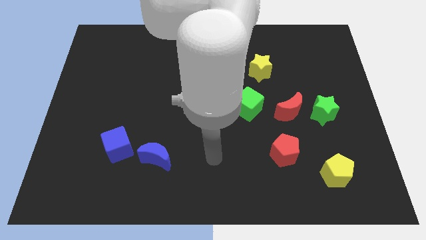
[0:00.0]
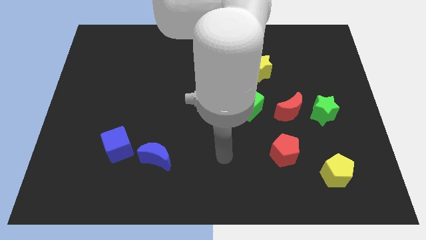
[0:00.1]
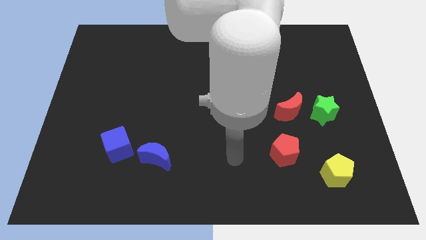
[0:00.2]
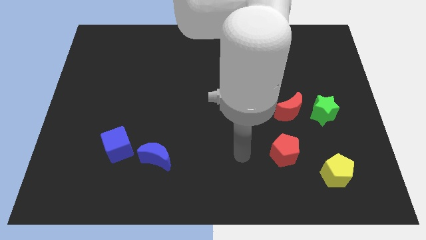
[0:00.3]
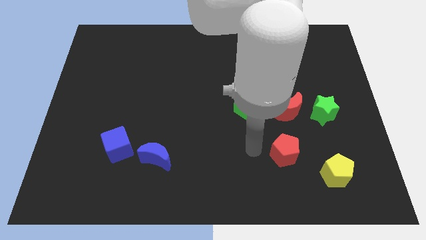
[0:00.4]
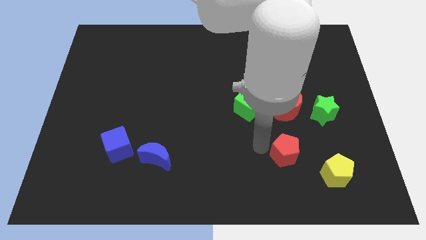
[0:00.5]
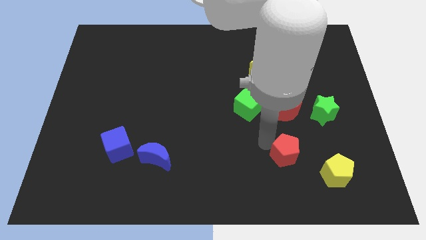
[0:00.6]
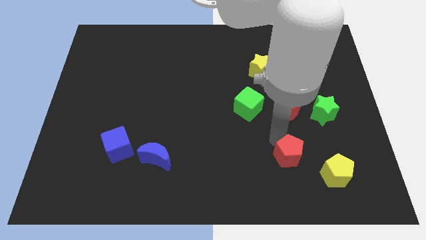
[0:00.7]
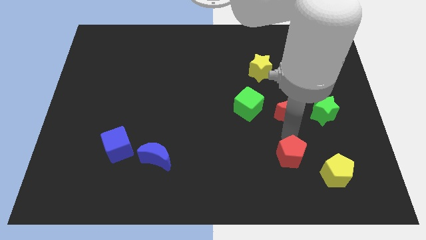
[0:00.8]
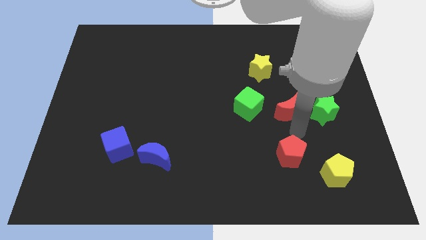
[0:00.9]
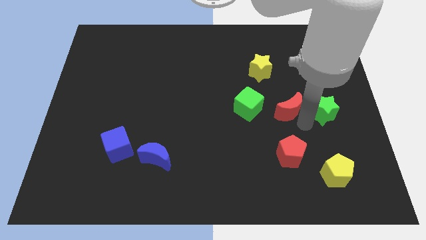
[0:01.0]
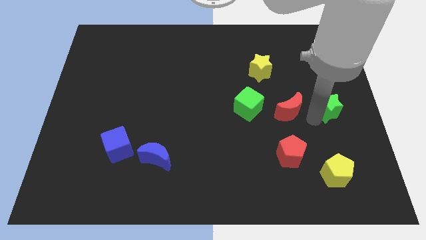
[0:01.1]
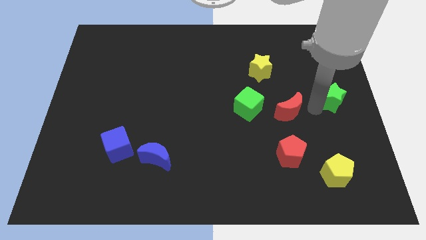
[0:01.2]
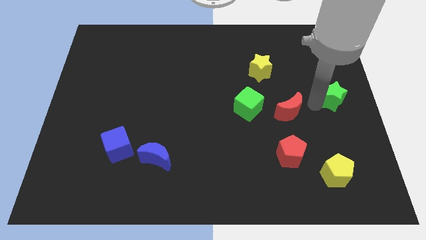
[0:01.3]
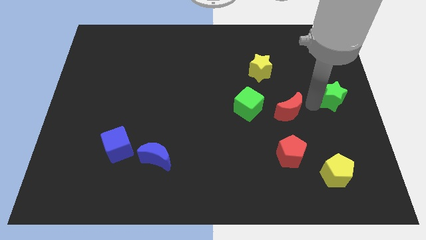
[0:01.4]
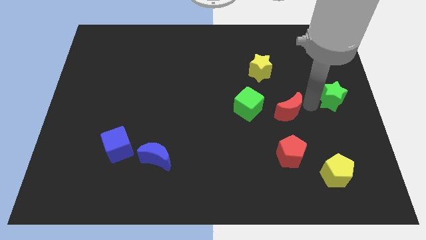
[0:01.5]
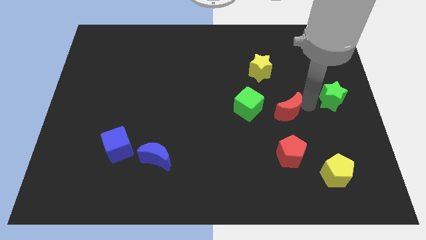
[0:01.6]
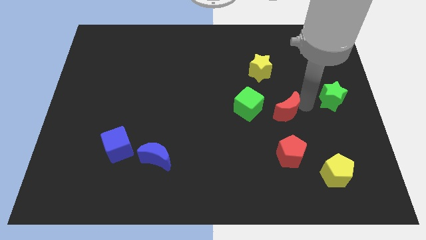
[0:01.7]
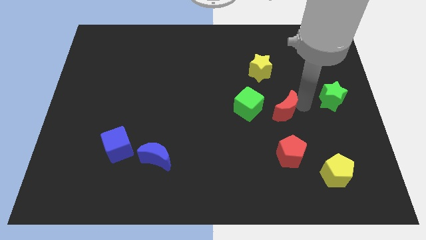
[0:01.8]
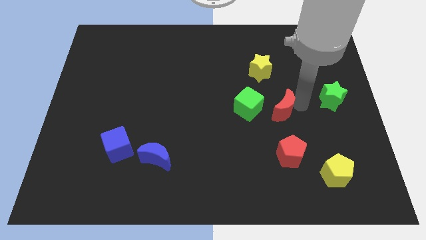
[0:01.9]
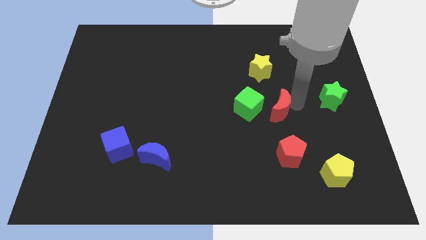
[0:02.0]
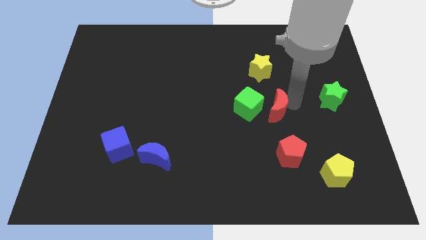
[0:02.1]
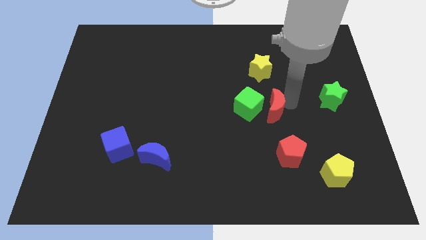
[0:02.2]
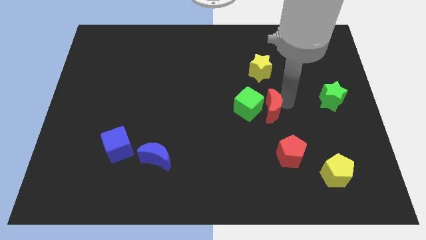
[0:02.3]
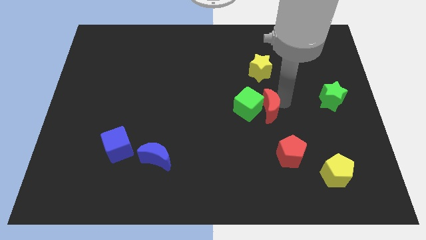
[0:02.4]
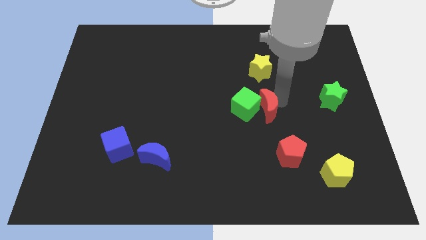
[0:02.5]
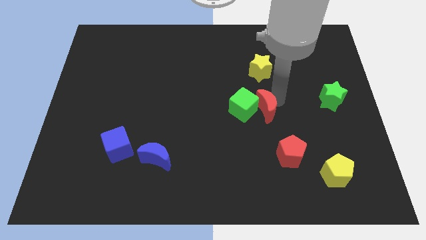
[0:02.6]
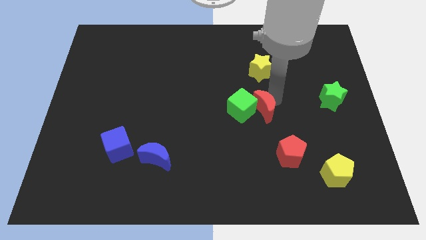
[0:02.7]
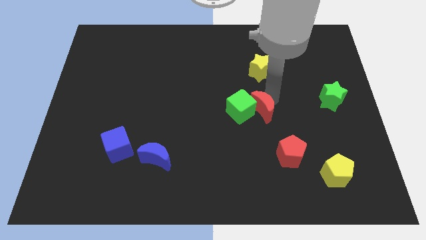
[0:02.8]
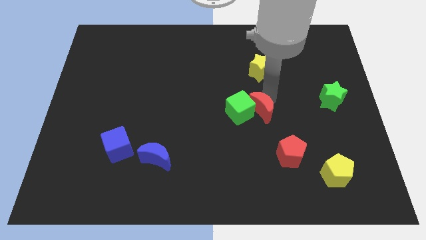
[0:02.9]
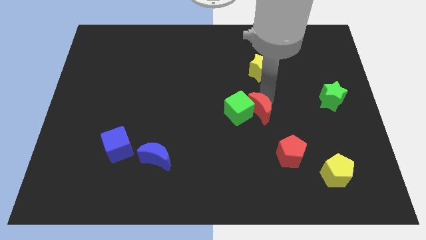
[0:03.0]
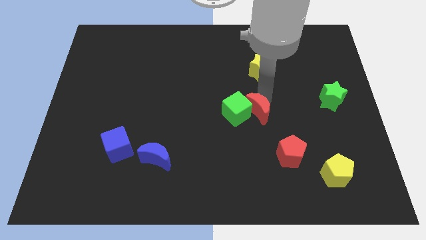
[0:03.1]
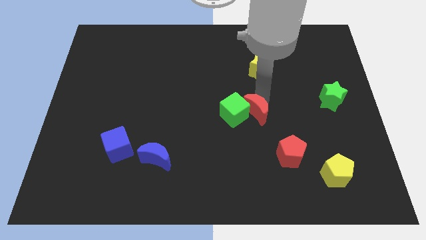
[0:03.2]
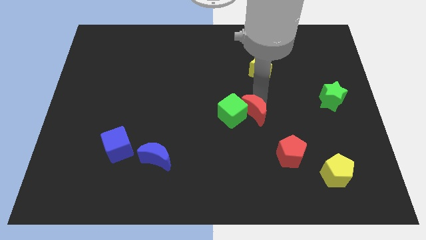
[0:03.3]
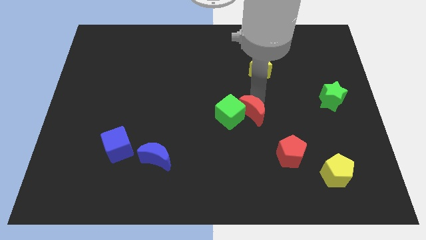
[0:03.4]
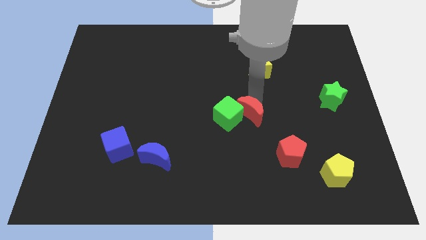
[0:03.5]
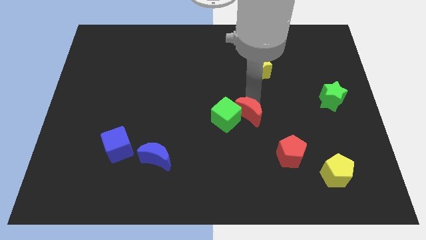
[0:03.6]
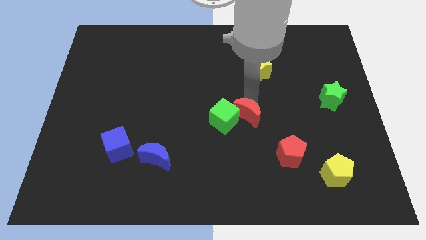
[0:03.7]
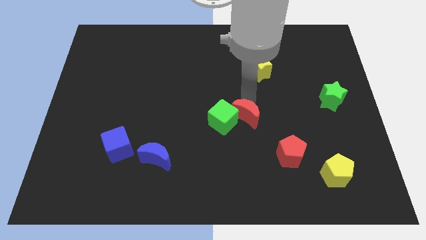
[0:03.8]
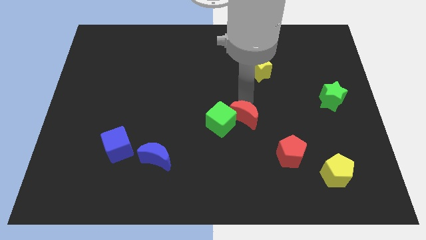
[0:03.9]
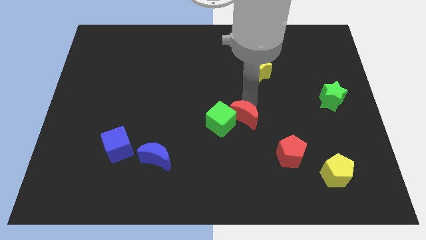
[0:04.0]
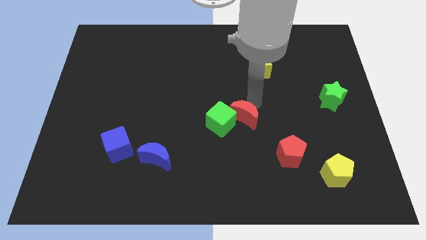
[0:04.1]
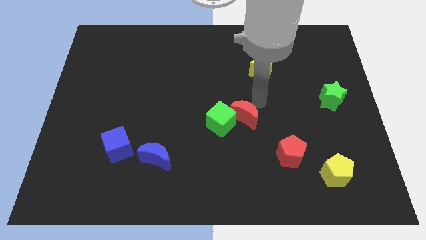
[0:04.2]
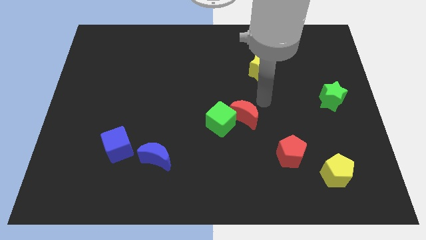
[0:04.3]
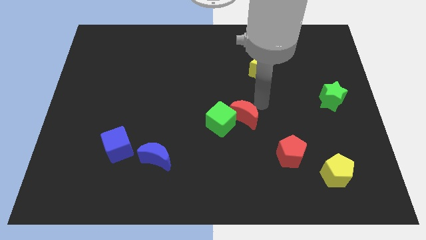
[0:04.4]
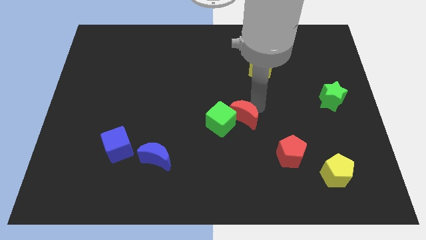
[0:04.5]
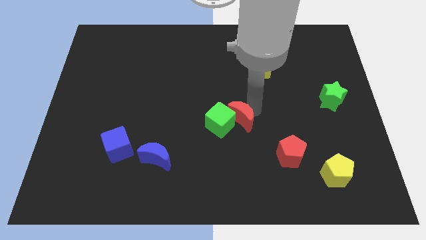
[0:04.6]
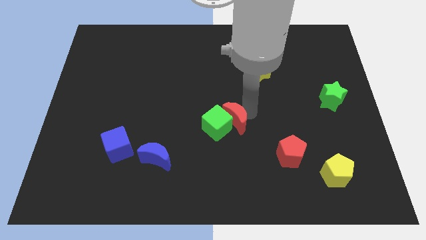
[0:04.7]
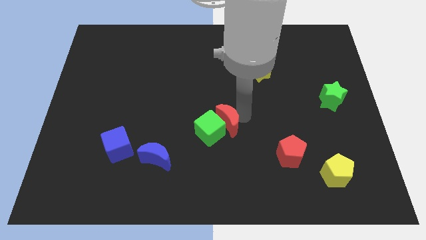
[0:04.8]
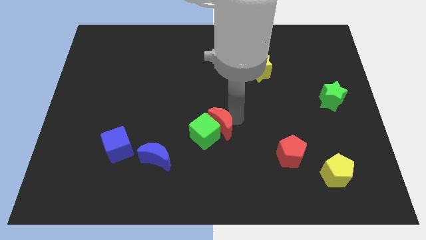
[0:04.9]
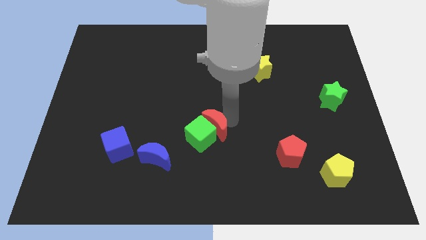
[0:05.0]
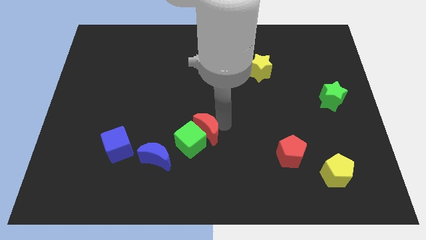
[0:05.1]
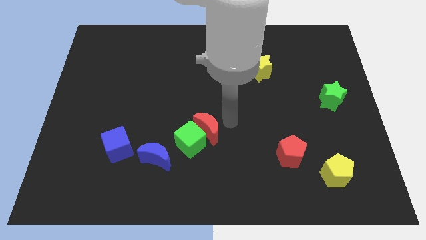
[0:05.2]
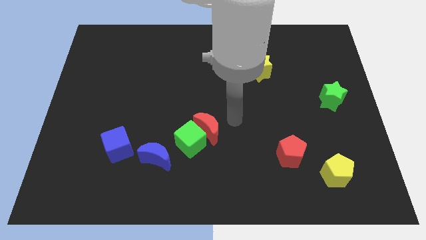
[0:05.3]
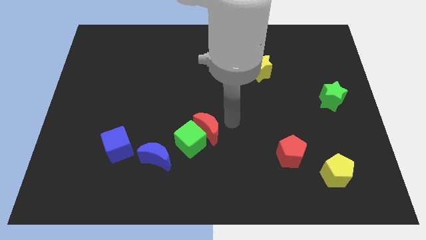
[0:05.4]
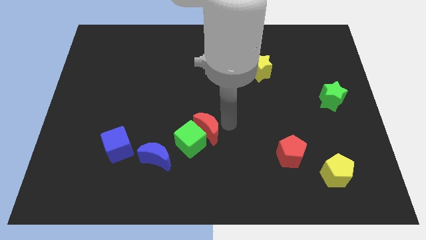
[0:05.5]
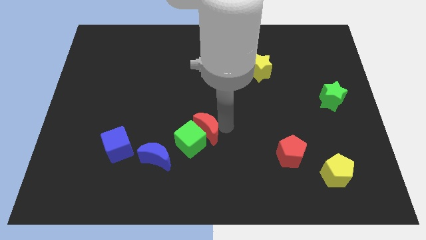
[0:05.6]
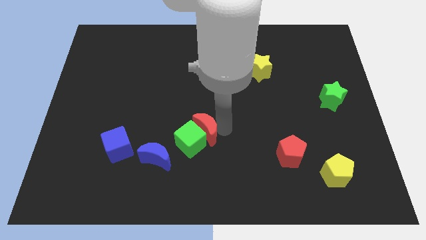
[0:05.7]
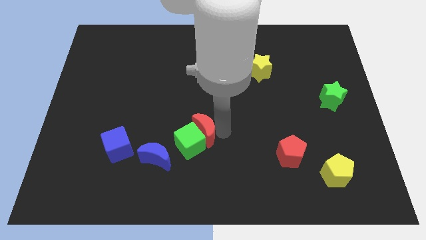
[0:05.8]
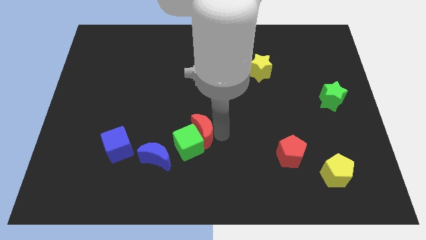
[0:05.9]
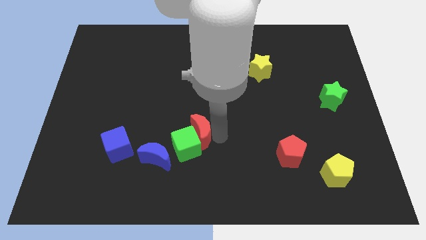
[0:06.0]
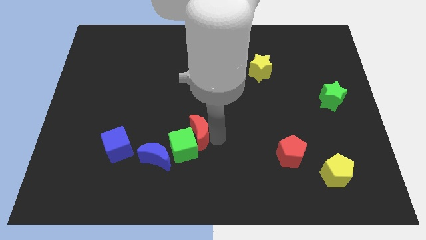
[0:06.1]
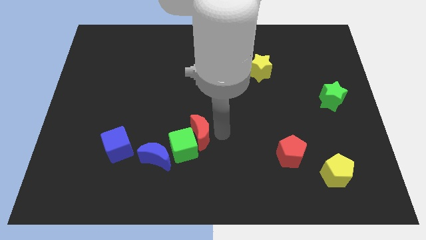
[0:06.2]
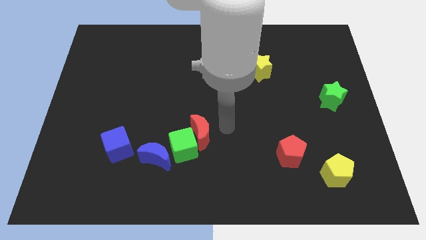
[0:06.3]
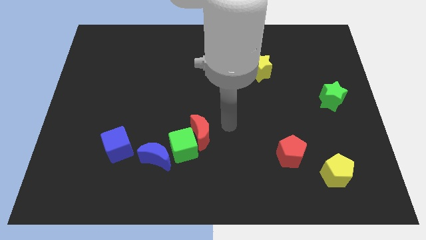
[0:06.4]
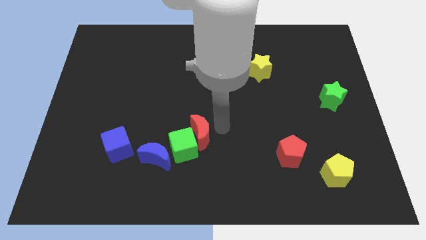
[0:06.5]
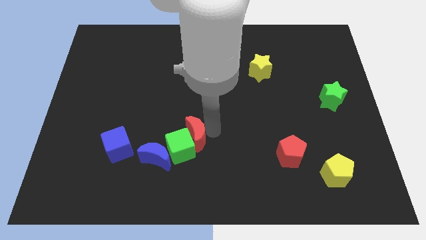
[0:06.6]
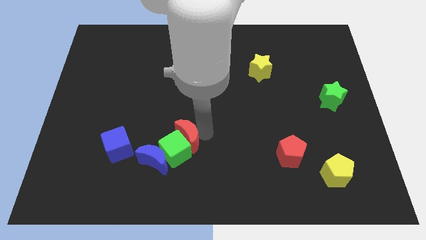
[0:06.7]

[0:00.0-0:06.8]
push the red moon right of the blue cube

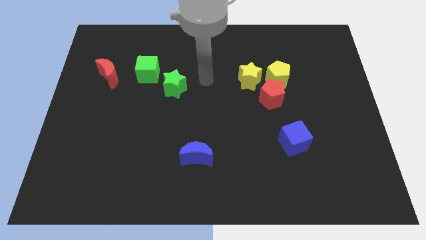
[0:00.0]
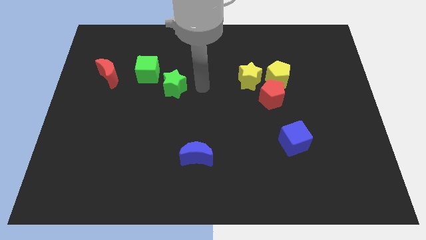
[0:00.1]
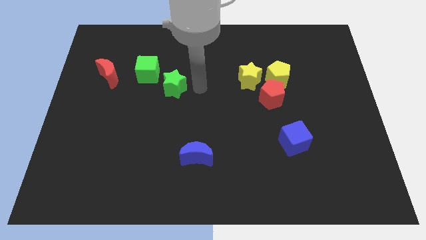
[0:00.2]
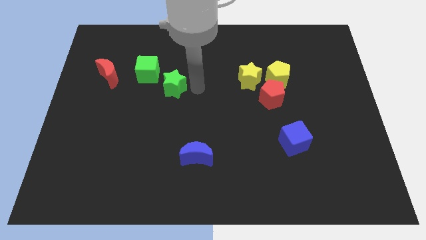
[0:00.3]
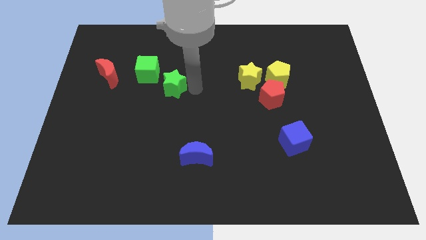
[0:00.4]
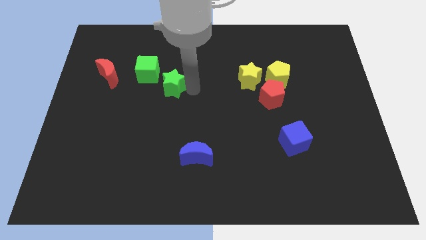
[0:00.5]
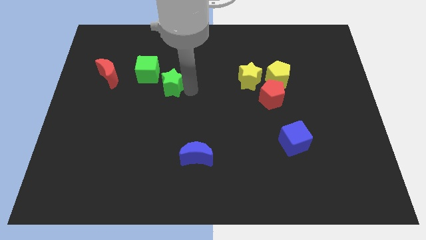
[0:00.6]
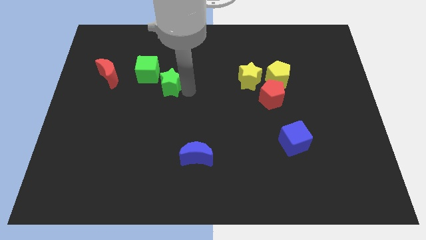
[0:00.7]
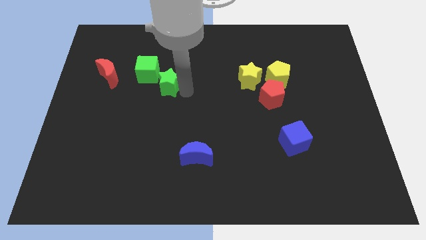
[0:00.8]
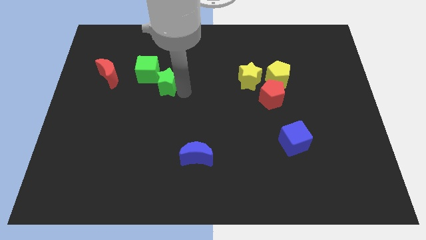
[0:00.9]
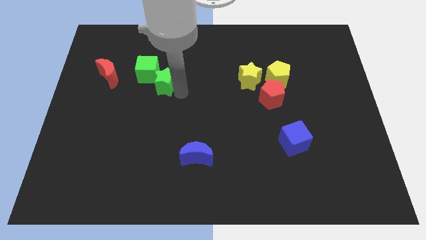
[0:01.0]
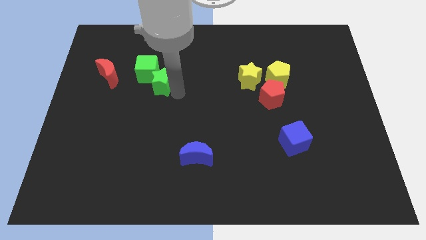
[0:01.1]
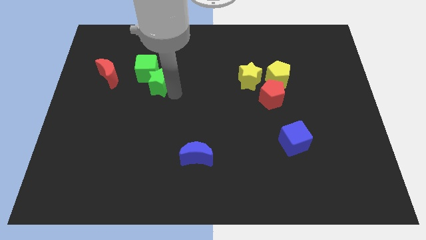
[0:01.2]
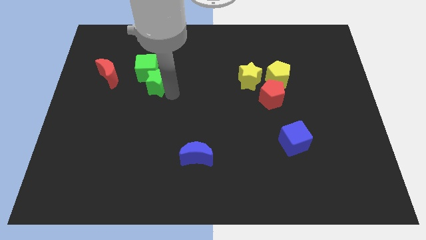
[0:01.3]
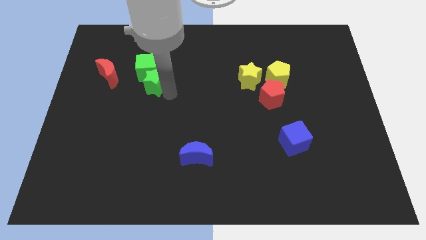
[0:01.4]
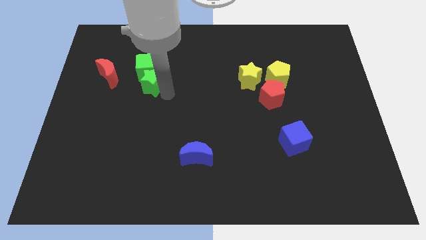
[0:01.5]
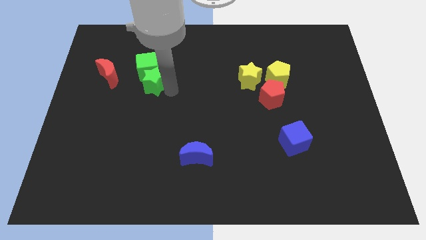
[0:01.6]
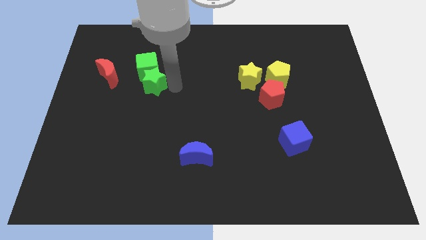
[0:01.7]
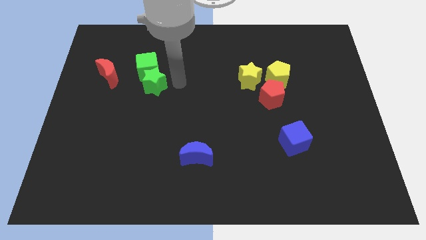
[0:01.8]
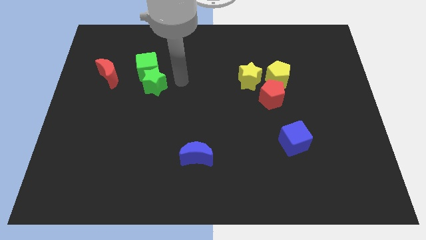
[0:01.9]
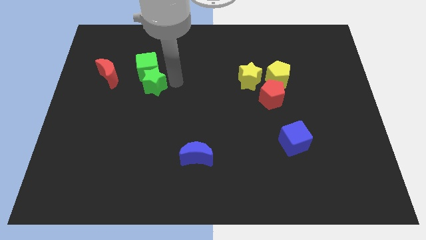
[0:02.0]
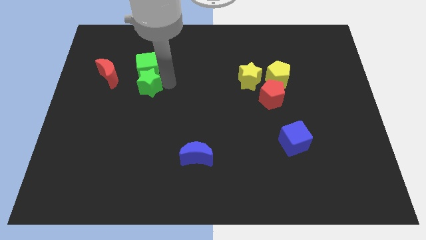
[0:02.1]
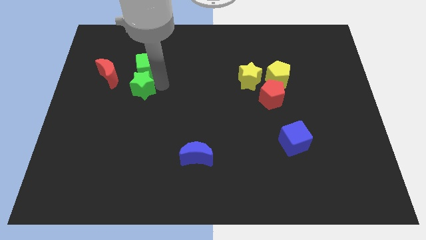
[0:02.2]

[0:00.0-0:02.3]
put the green star to the bottom right of the red moon
